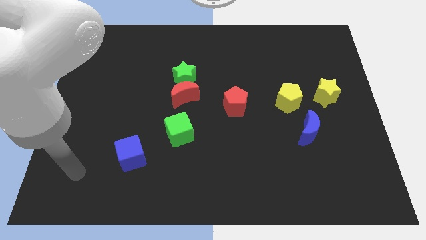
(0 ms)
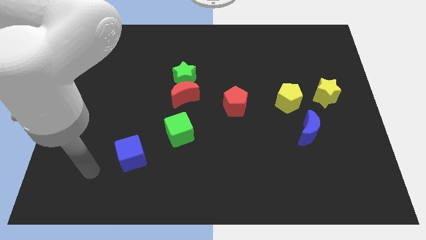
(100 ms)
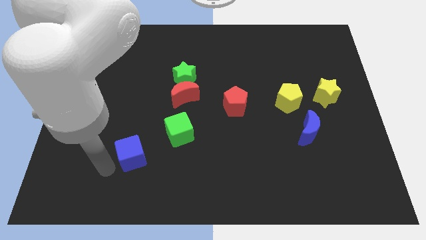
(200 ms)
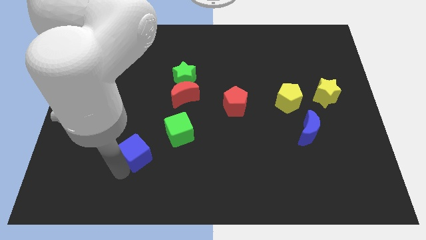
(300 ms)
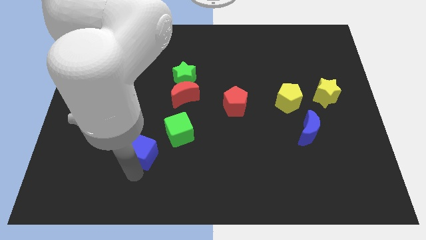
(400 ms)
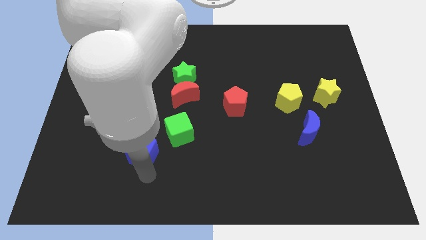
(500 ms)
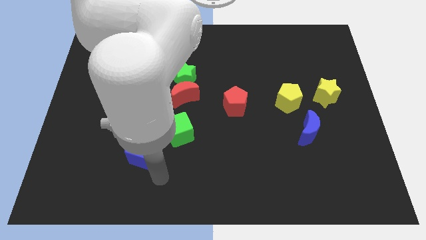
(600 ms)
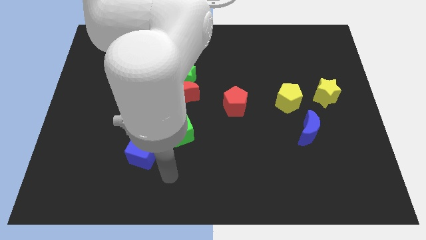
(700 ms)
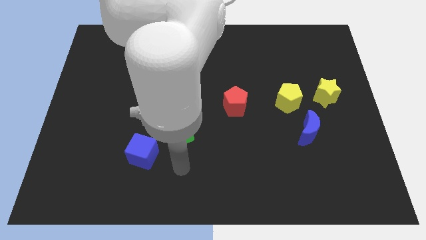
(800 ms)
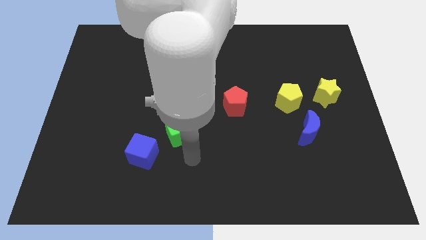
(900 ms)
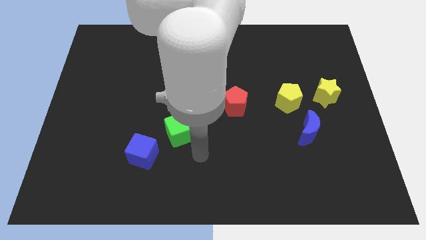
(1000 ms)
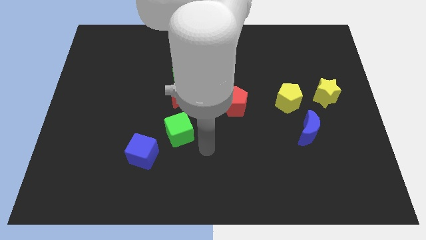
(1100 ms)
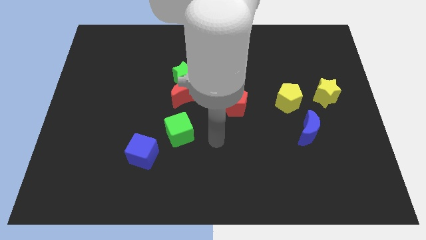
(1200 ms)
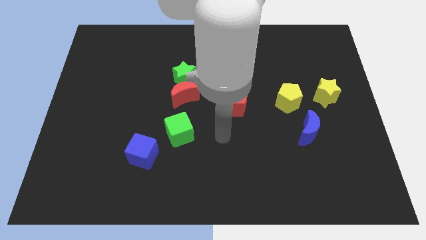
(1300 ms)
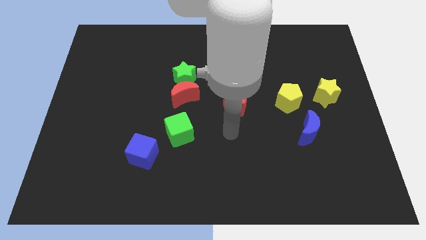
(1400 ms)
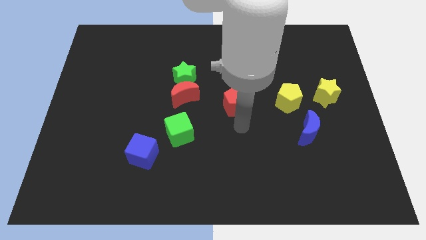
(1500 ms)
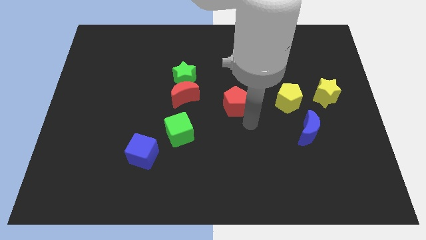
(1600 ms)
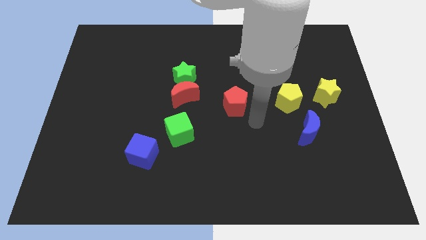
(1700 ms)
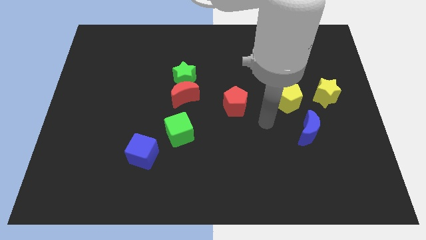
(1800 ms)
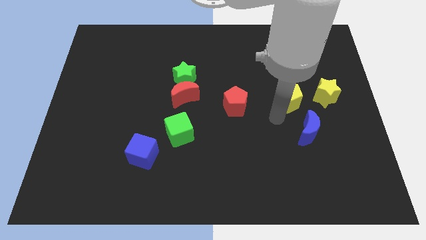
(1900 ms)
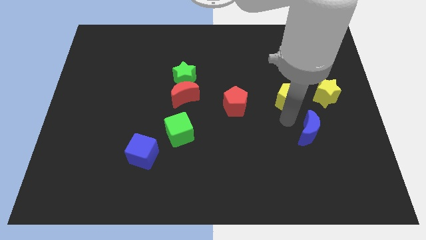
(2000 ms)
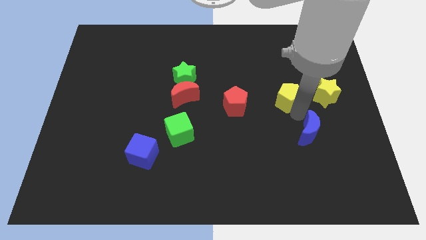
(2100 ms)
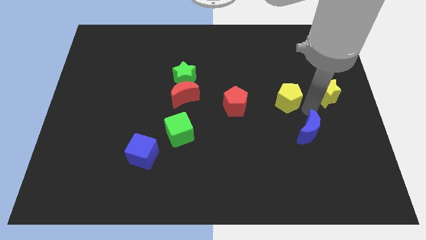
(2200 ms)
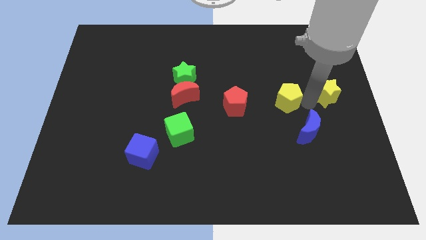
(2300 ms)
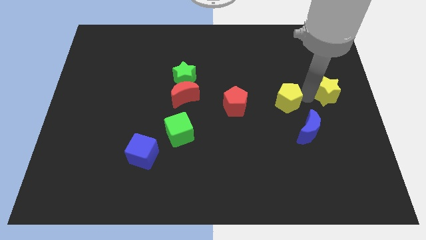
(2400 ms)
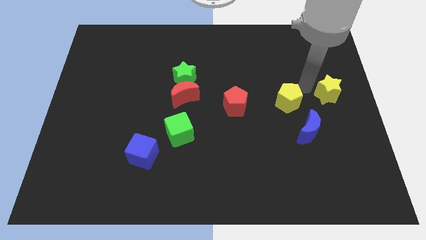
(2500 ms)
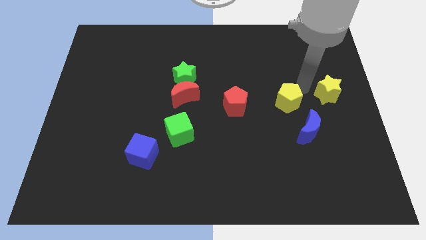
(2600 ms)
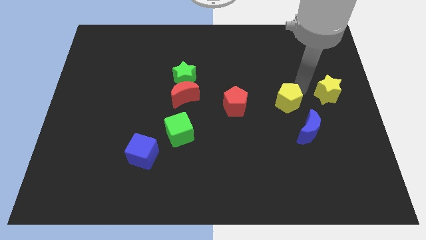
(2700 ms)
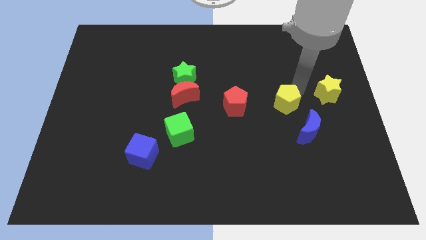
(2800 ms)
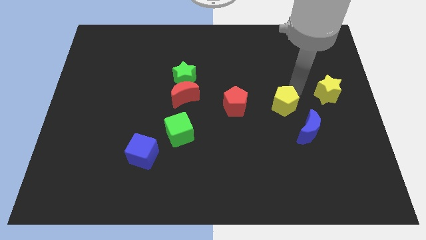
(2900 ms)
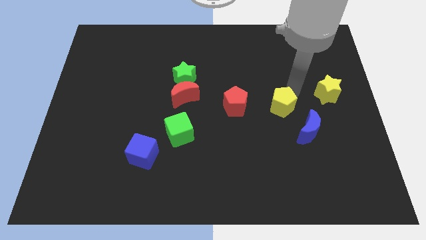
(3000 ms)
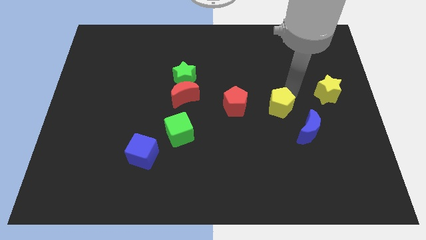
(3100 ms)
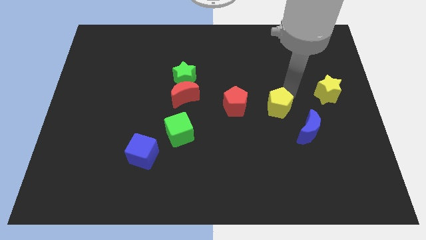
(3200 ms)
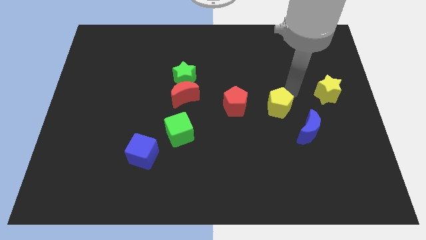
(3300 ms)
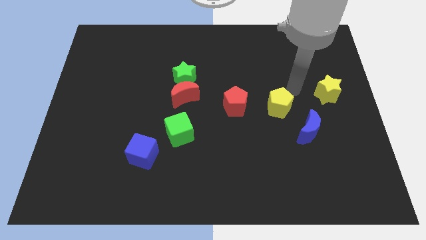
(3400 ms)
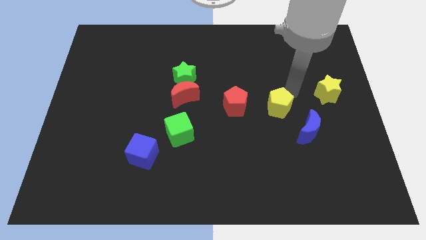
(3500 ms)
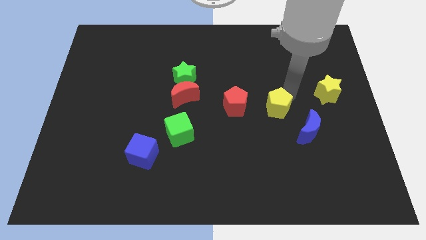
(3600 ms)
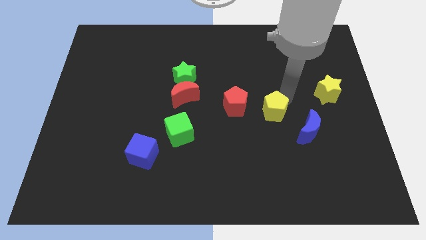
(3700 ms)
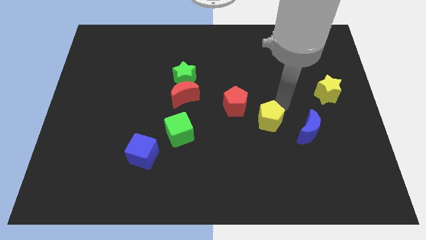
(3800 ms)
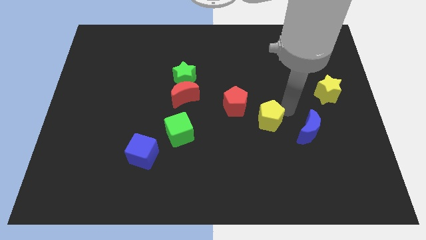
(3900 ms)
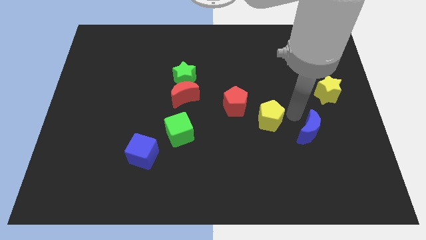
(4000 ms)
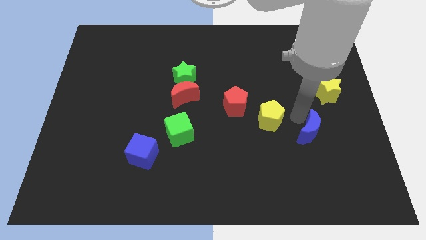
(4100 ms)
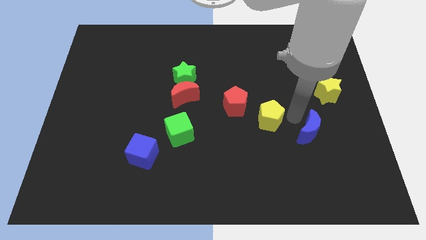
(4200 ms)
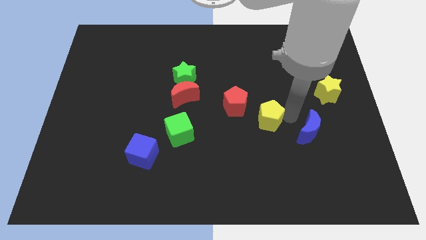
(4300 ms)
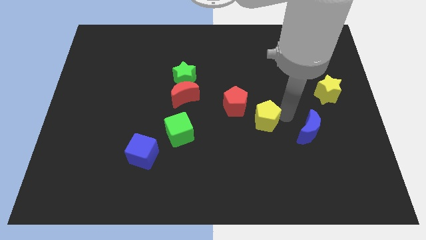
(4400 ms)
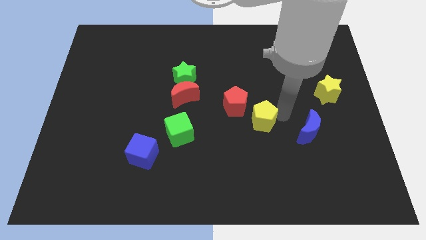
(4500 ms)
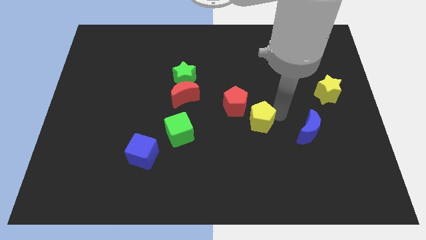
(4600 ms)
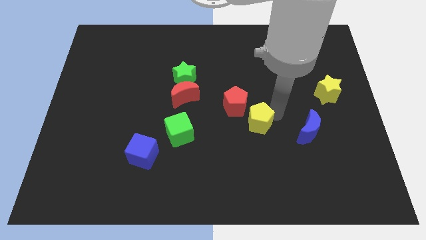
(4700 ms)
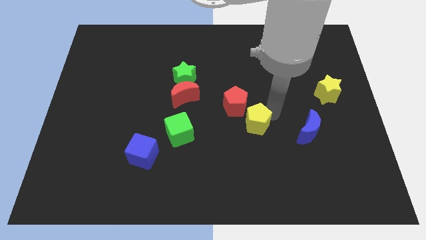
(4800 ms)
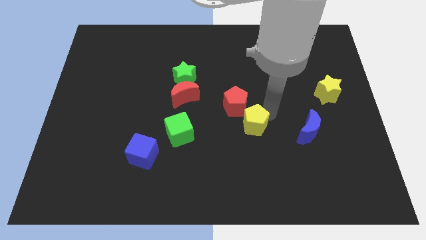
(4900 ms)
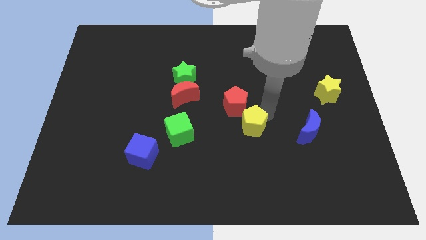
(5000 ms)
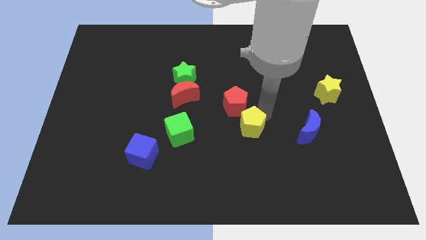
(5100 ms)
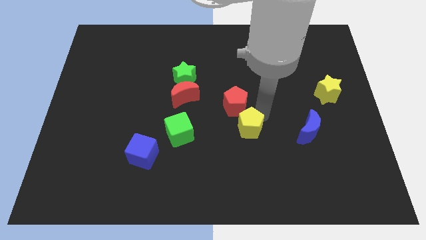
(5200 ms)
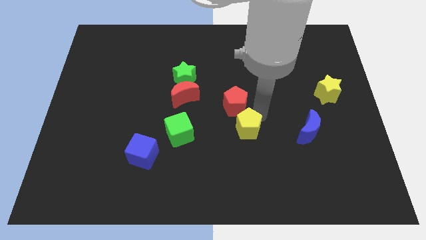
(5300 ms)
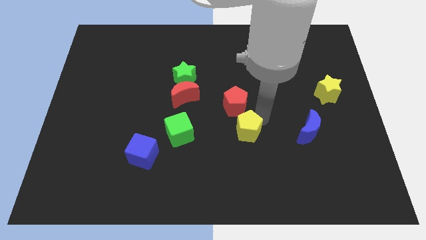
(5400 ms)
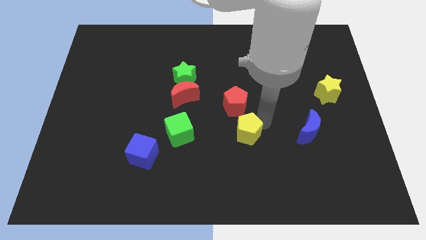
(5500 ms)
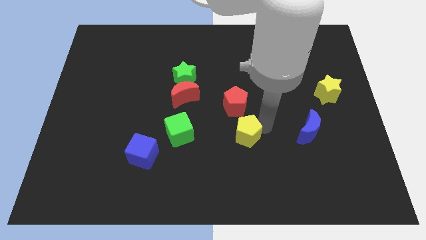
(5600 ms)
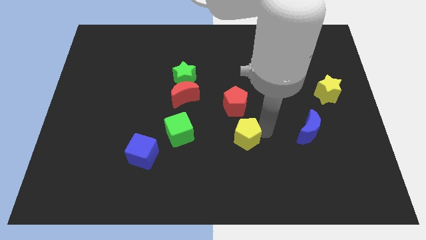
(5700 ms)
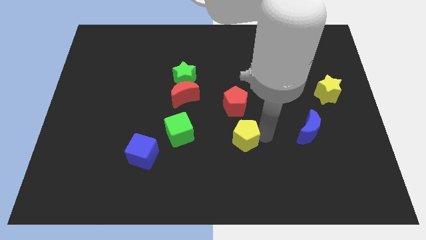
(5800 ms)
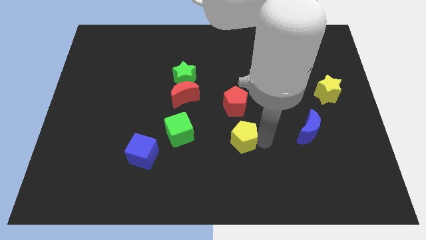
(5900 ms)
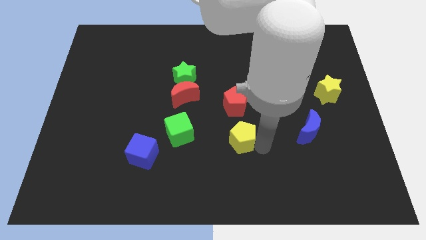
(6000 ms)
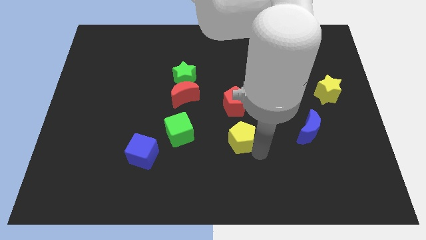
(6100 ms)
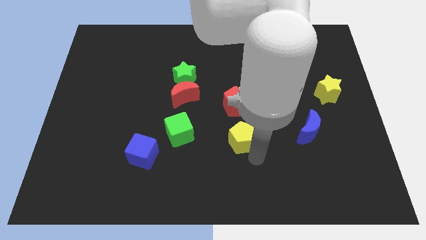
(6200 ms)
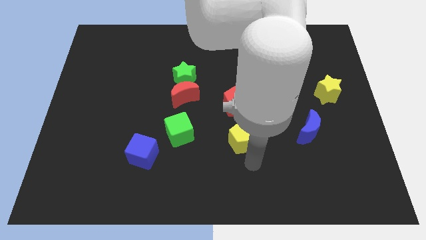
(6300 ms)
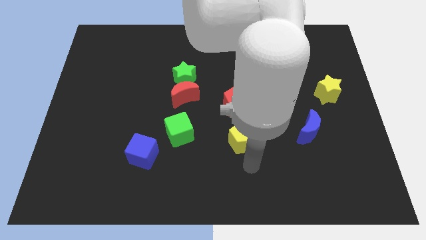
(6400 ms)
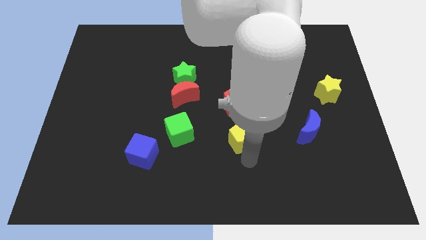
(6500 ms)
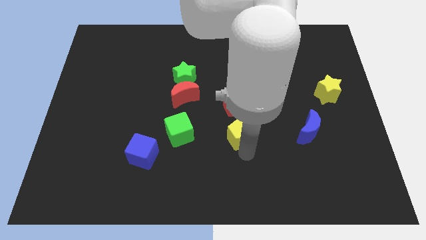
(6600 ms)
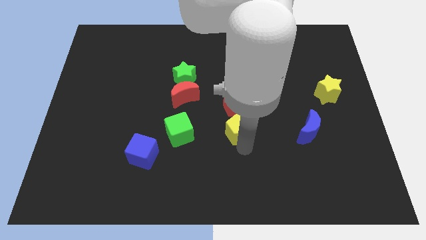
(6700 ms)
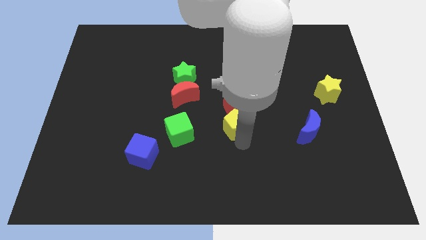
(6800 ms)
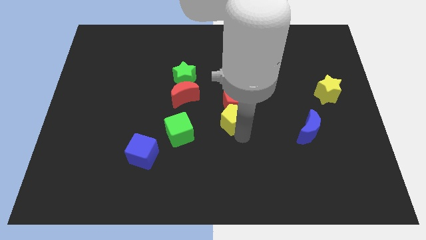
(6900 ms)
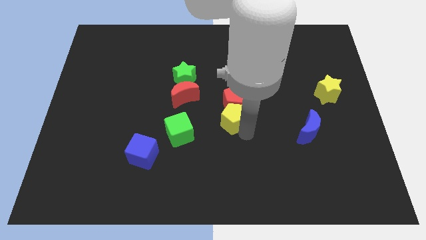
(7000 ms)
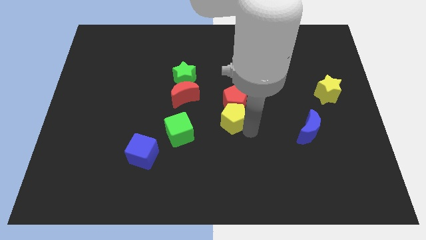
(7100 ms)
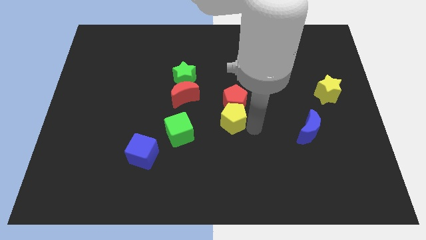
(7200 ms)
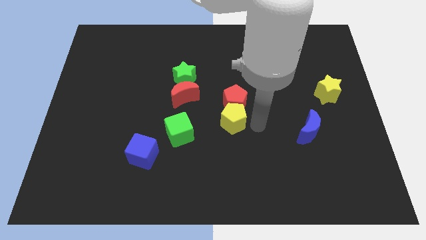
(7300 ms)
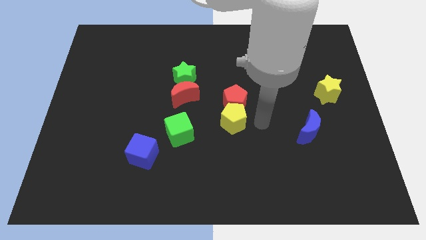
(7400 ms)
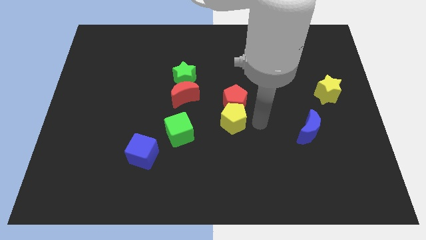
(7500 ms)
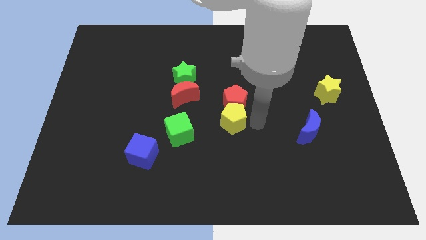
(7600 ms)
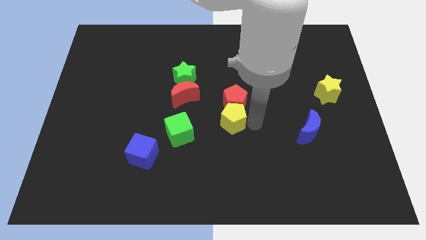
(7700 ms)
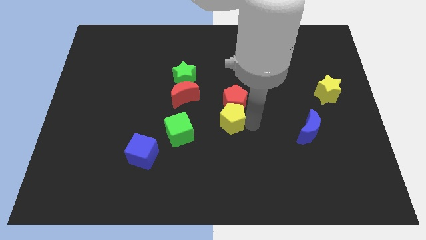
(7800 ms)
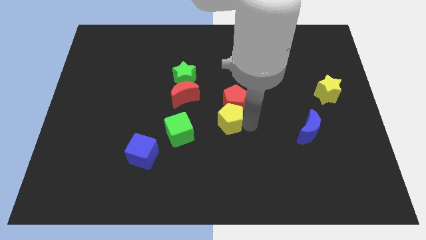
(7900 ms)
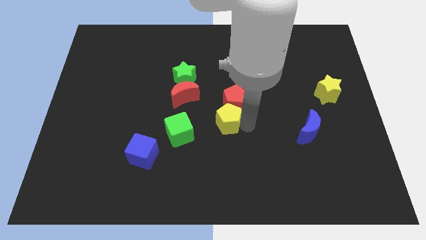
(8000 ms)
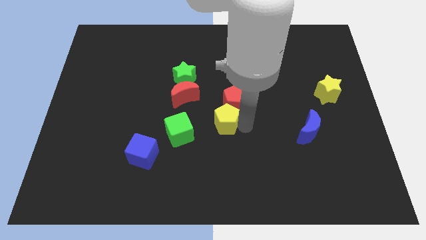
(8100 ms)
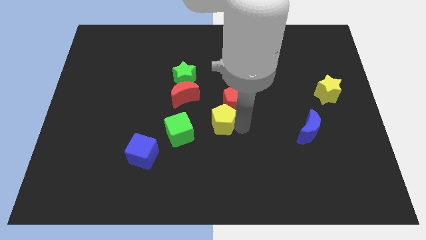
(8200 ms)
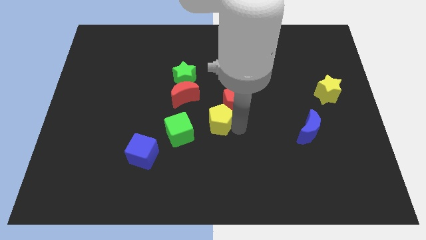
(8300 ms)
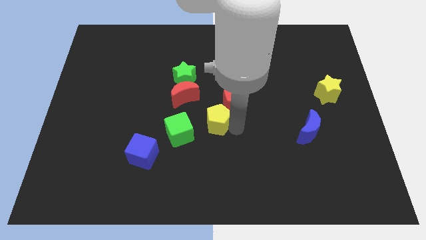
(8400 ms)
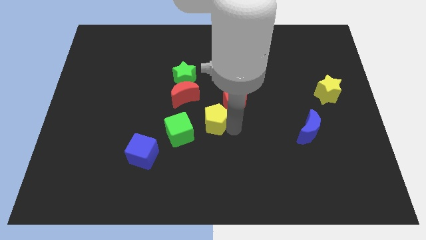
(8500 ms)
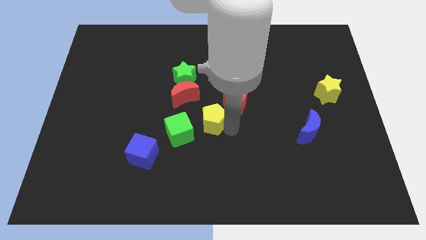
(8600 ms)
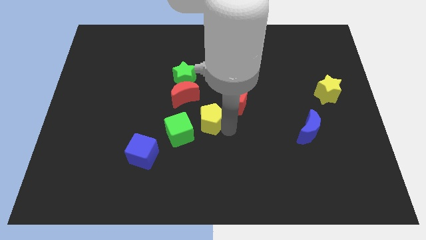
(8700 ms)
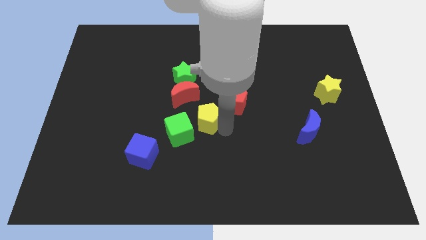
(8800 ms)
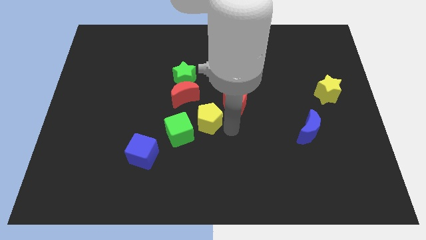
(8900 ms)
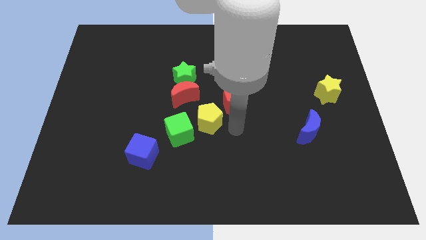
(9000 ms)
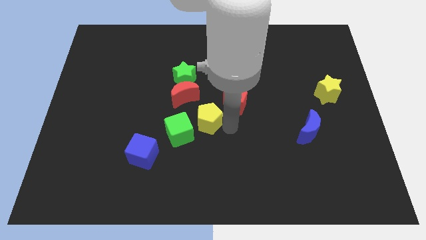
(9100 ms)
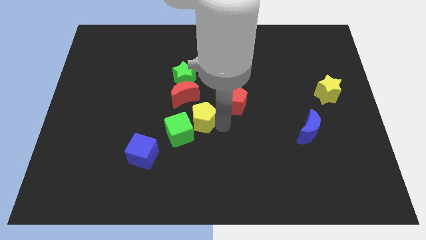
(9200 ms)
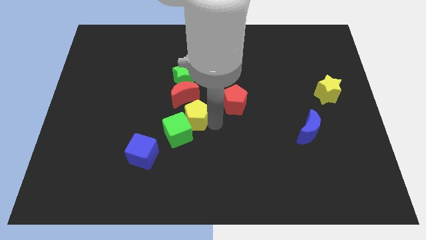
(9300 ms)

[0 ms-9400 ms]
move the yellow pentagon to the left
